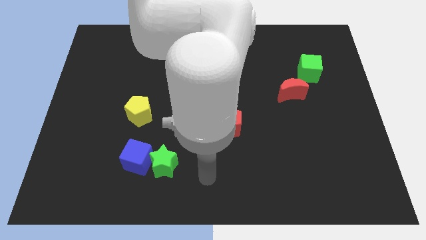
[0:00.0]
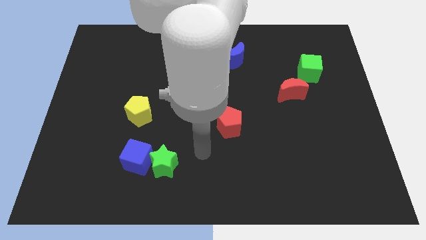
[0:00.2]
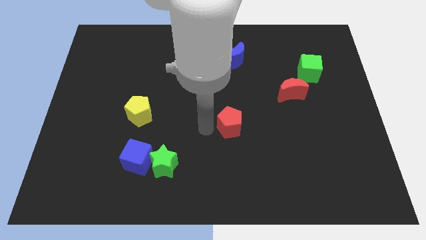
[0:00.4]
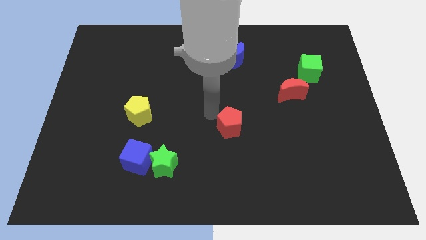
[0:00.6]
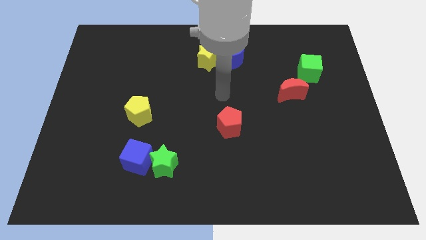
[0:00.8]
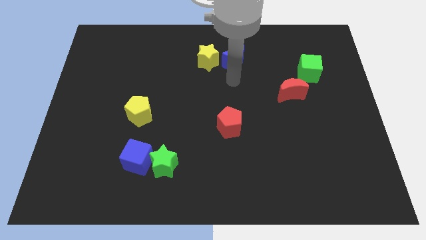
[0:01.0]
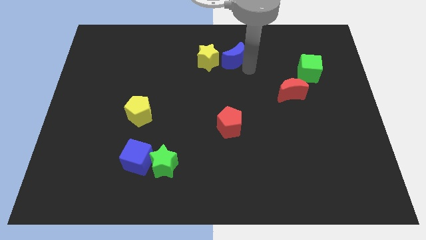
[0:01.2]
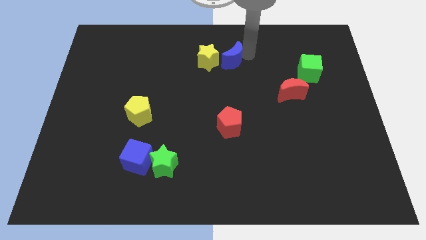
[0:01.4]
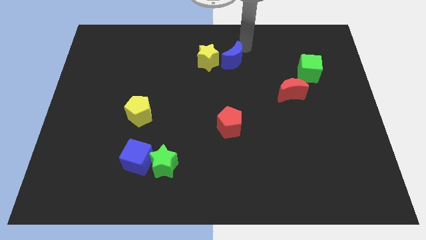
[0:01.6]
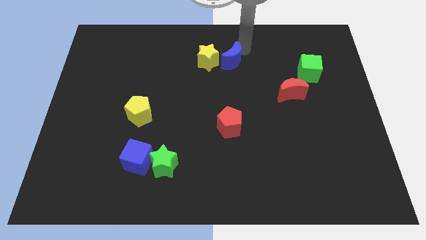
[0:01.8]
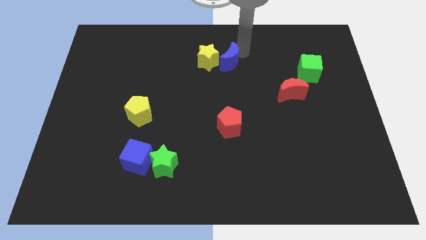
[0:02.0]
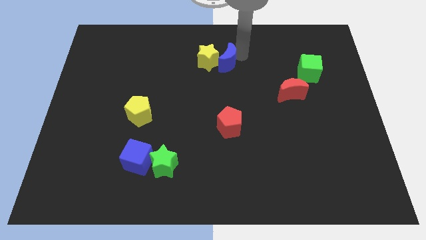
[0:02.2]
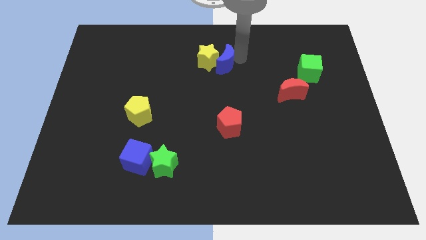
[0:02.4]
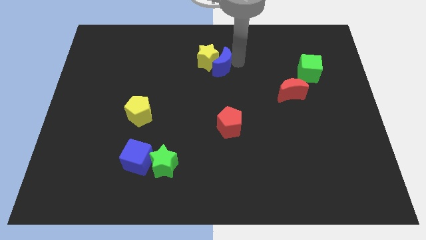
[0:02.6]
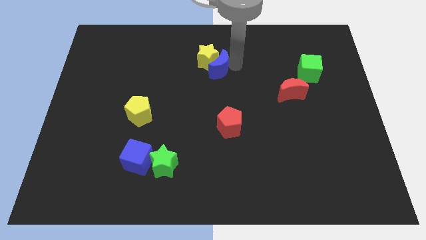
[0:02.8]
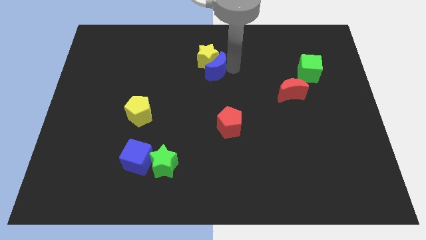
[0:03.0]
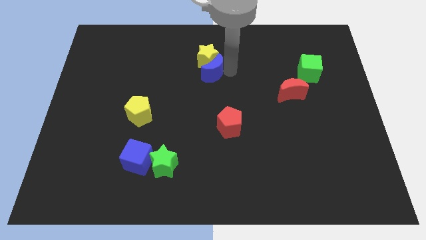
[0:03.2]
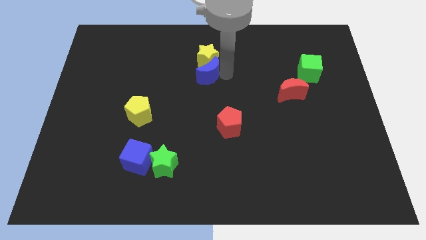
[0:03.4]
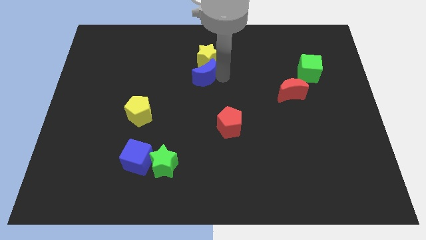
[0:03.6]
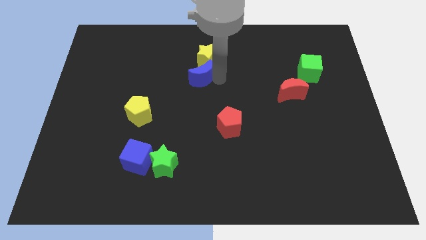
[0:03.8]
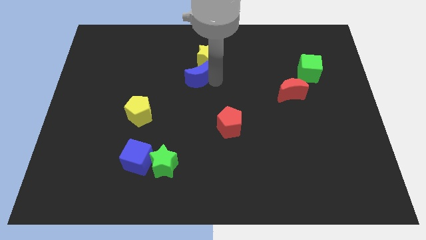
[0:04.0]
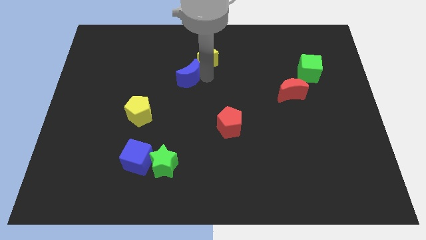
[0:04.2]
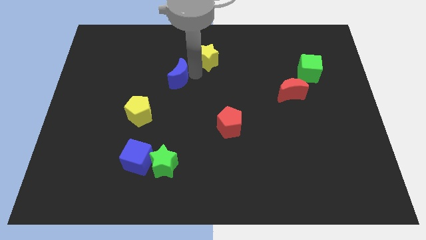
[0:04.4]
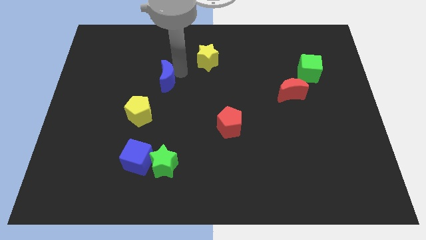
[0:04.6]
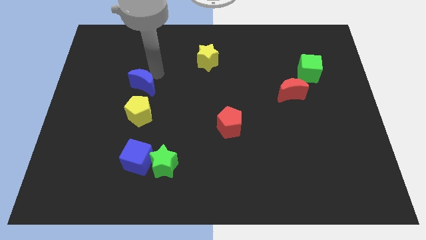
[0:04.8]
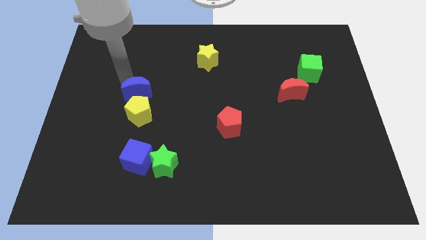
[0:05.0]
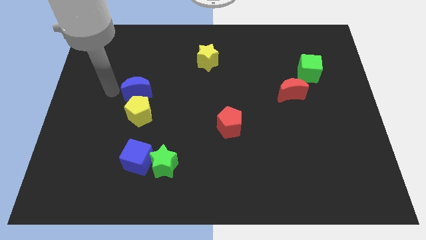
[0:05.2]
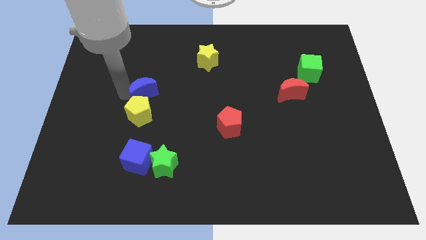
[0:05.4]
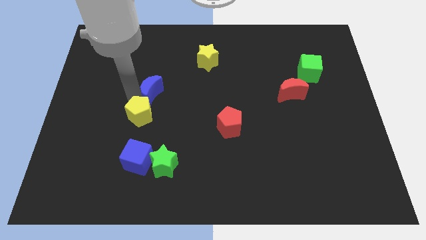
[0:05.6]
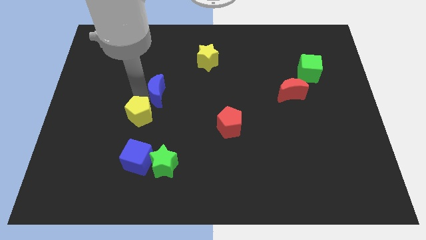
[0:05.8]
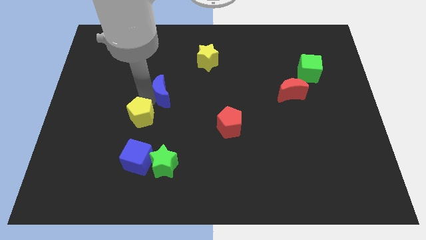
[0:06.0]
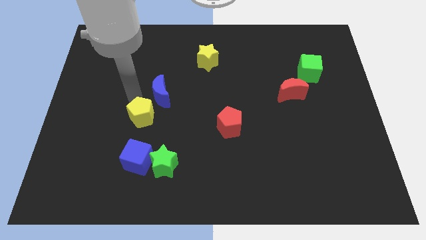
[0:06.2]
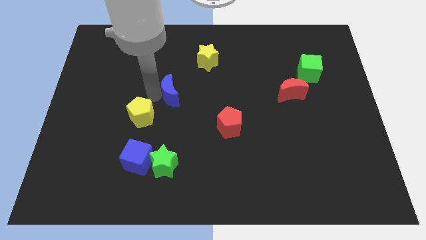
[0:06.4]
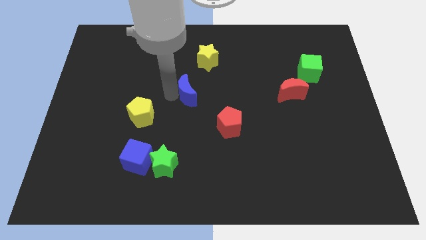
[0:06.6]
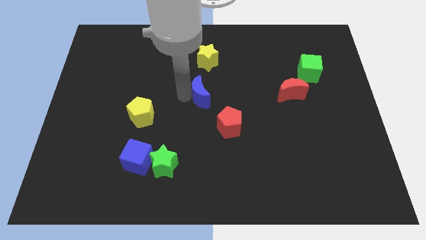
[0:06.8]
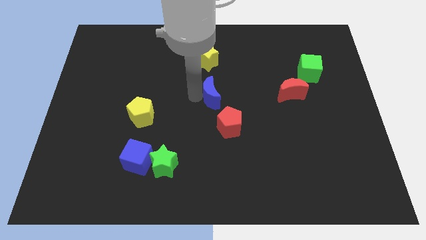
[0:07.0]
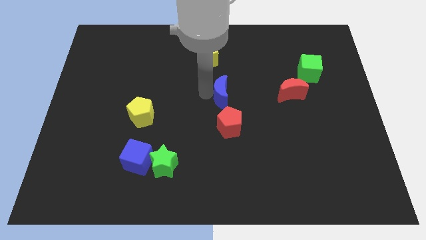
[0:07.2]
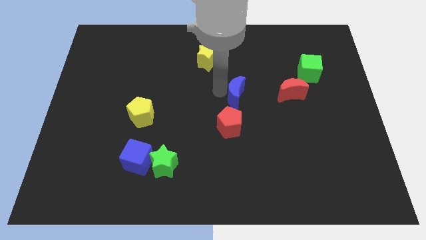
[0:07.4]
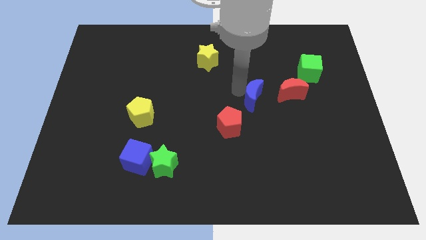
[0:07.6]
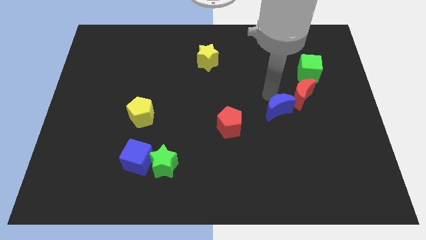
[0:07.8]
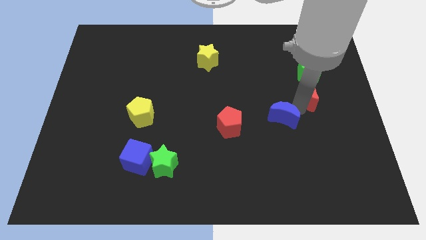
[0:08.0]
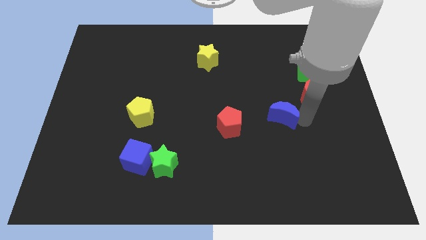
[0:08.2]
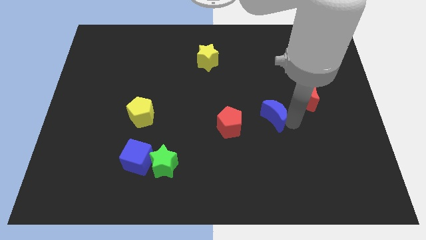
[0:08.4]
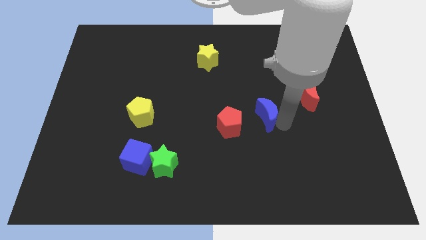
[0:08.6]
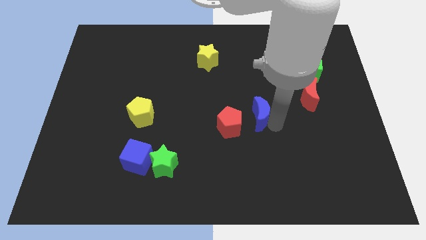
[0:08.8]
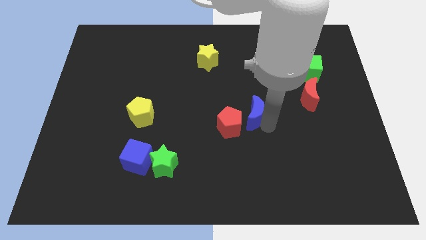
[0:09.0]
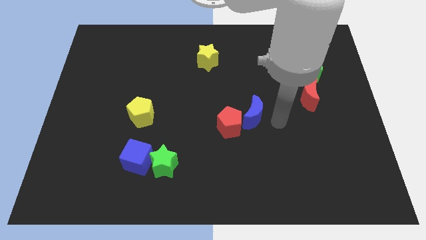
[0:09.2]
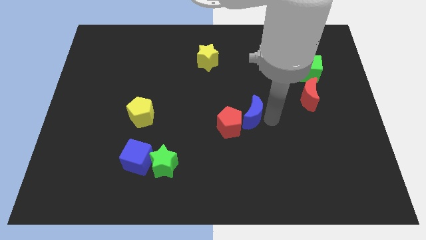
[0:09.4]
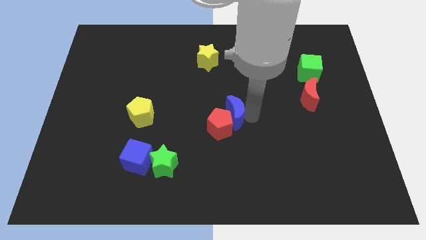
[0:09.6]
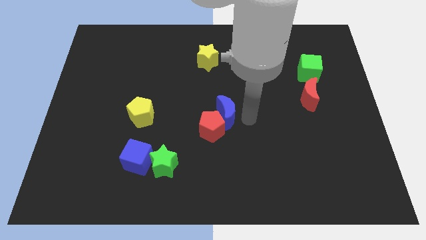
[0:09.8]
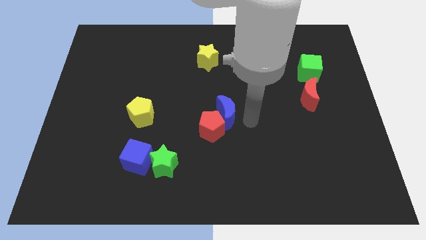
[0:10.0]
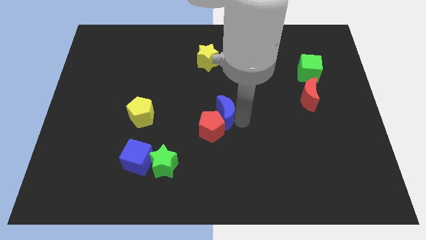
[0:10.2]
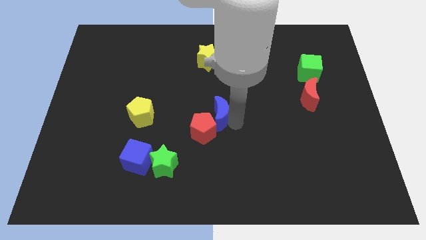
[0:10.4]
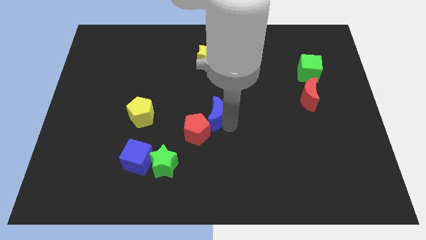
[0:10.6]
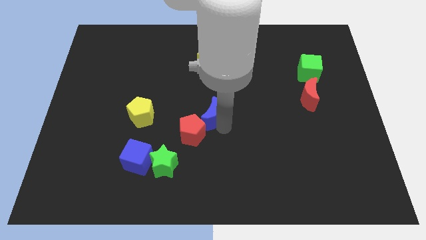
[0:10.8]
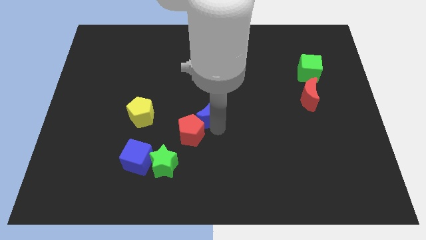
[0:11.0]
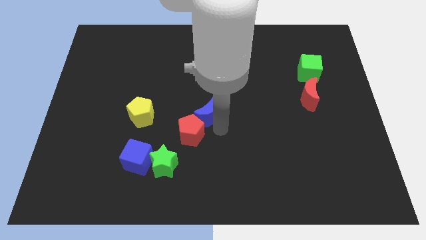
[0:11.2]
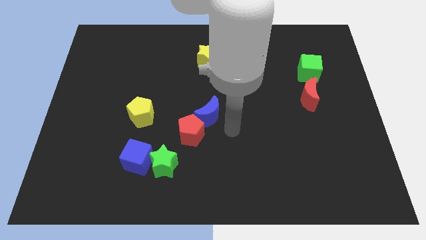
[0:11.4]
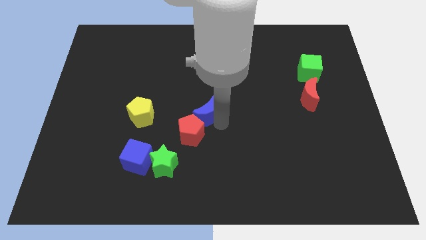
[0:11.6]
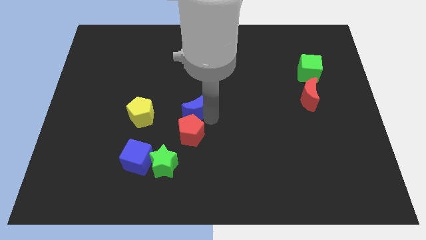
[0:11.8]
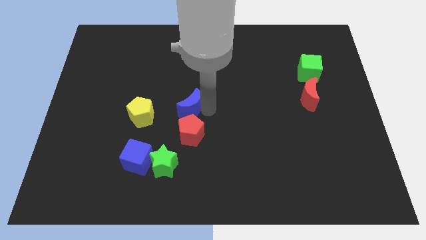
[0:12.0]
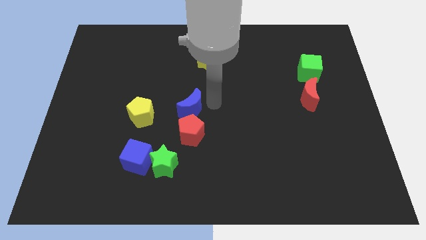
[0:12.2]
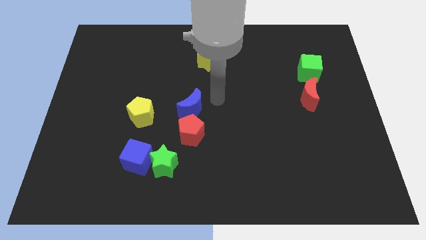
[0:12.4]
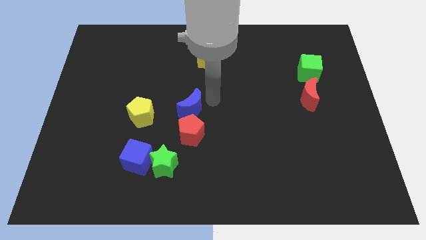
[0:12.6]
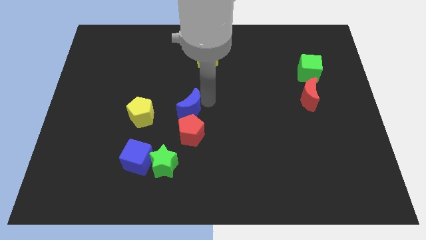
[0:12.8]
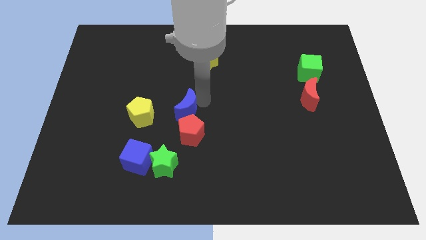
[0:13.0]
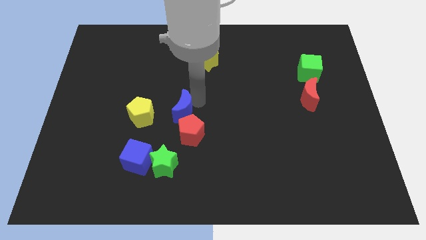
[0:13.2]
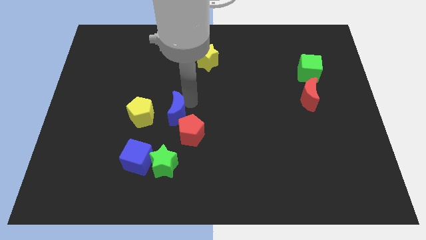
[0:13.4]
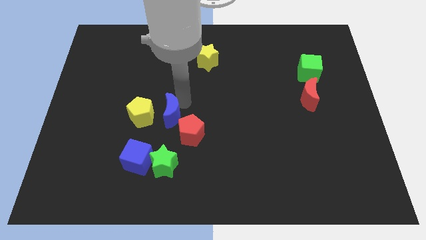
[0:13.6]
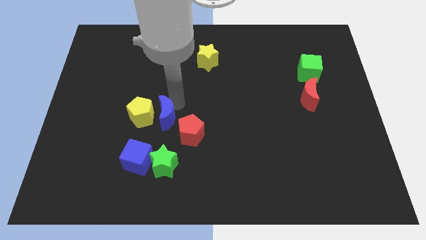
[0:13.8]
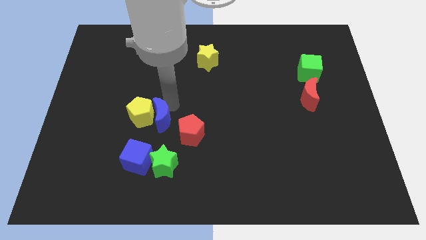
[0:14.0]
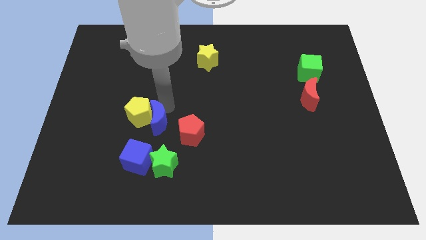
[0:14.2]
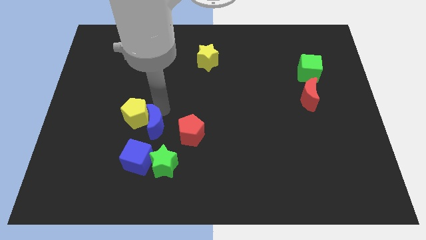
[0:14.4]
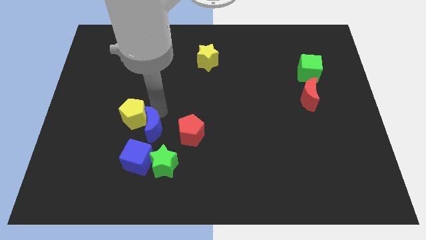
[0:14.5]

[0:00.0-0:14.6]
move the blue moon to the top left side of the green star
